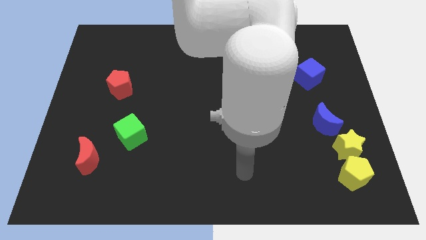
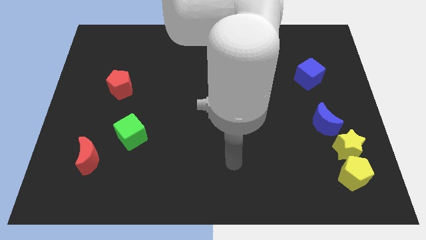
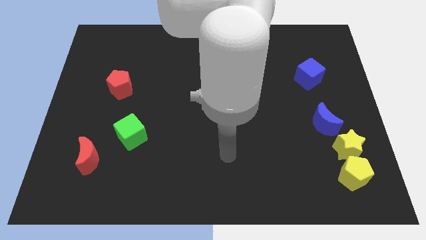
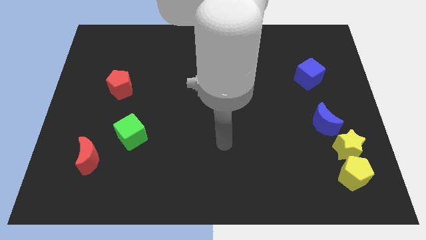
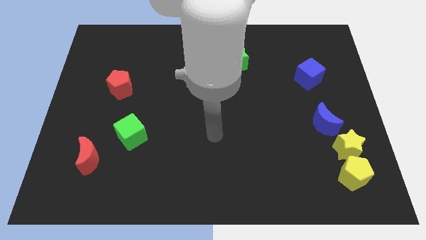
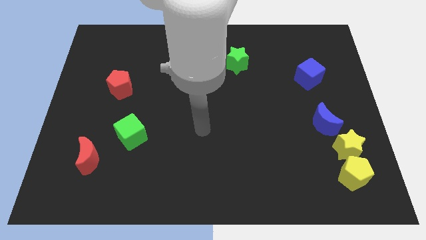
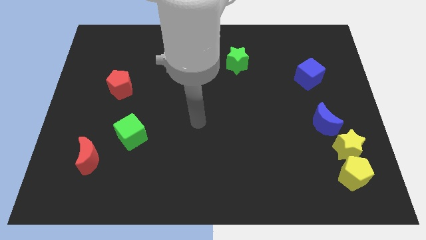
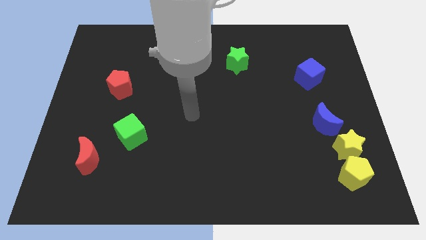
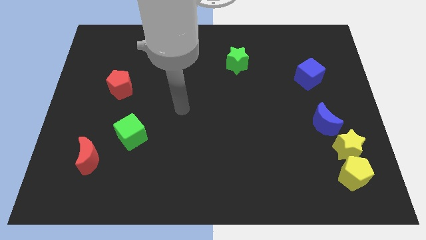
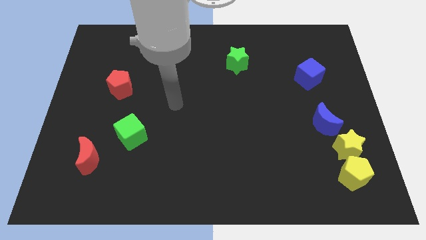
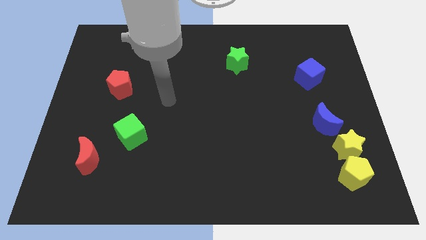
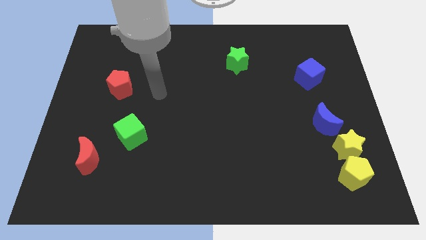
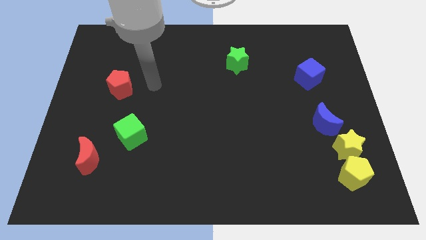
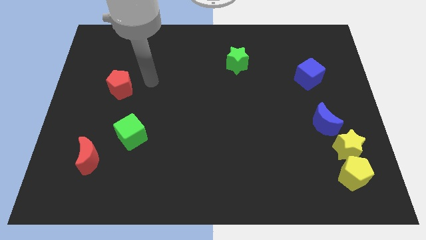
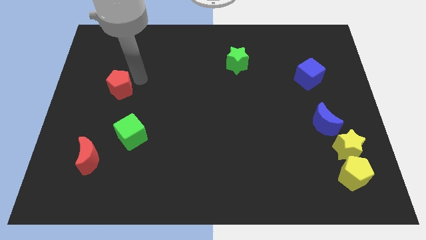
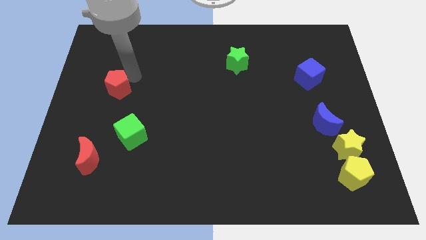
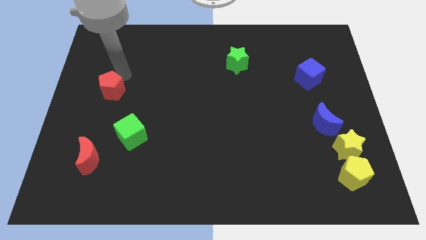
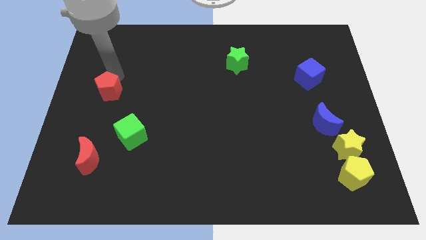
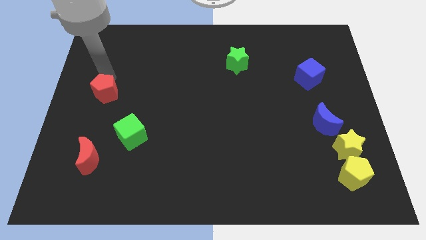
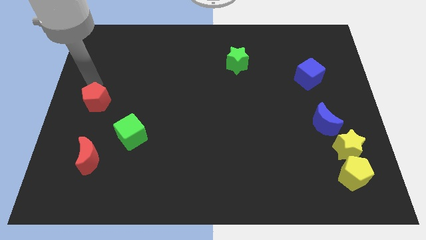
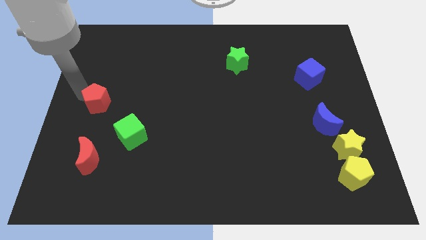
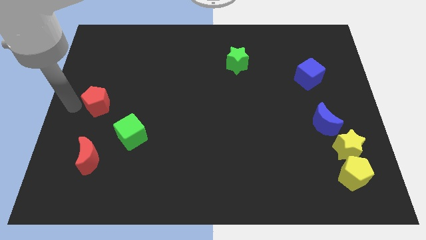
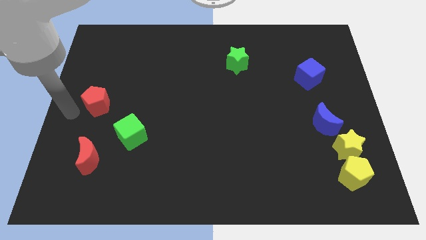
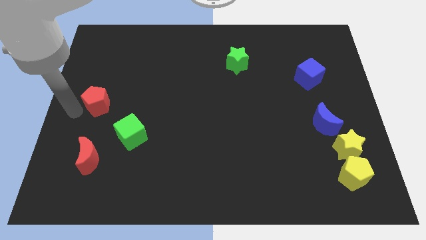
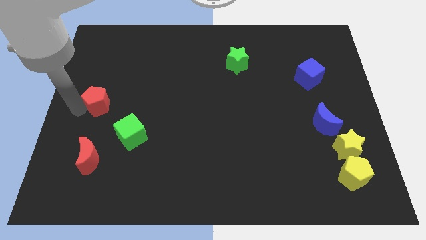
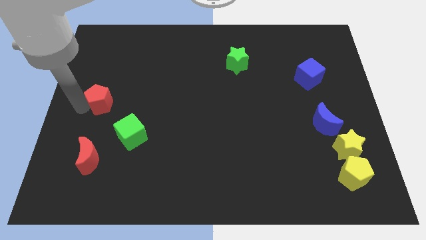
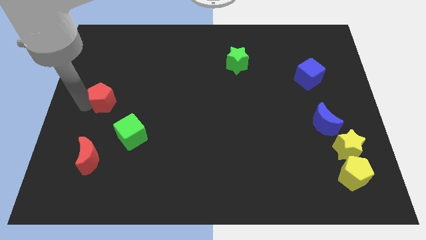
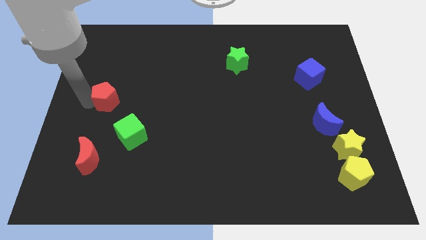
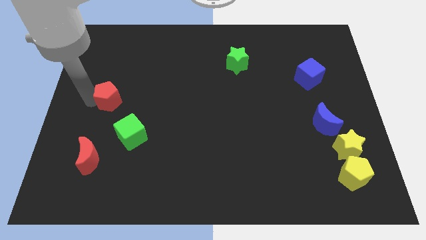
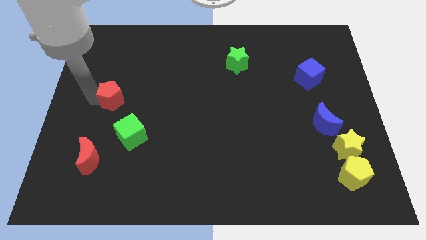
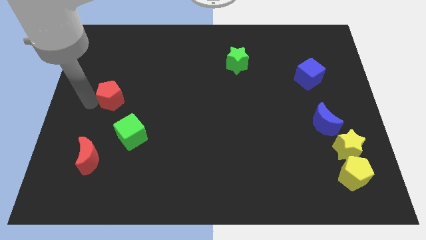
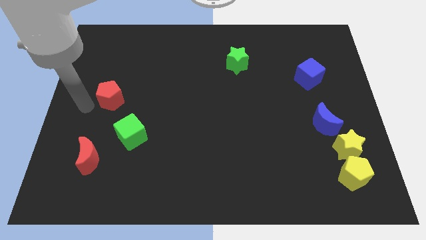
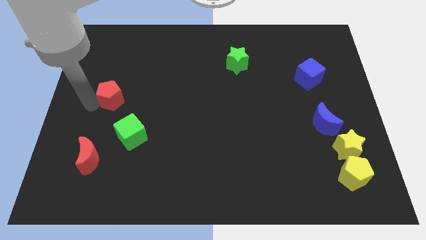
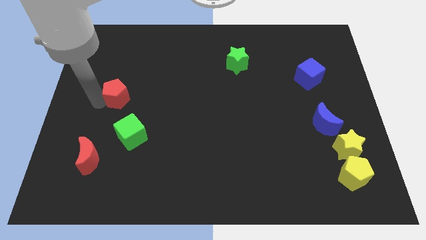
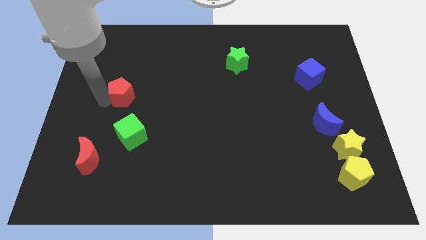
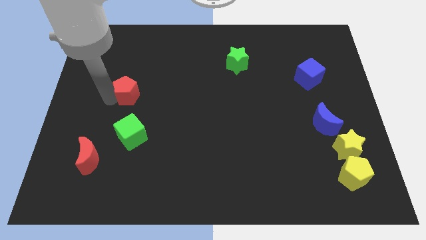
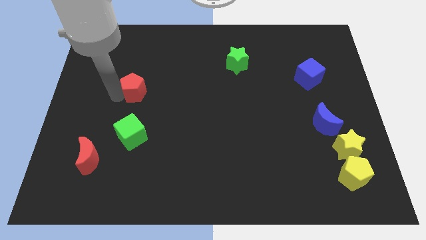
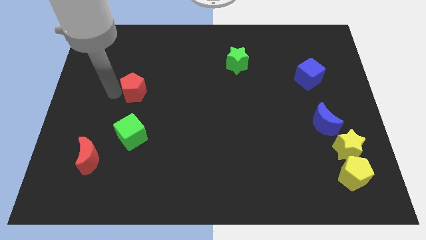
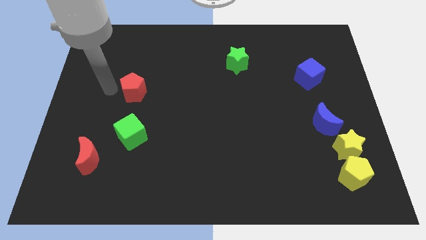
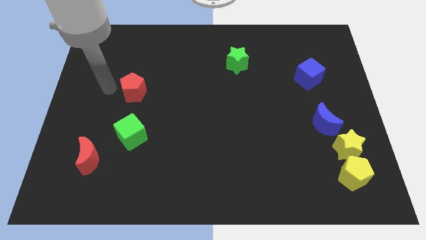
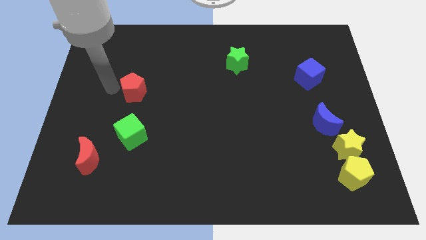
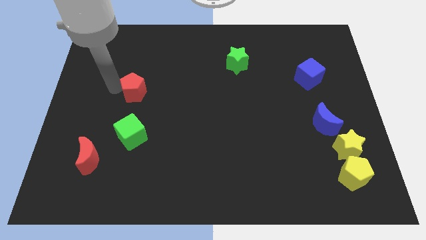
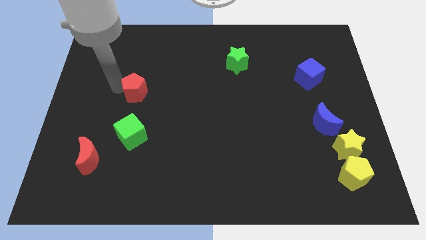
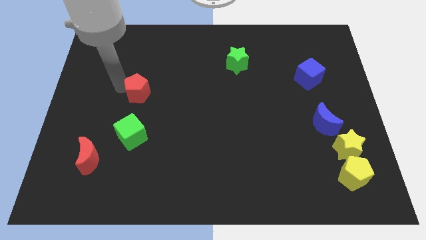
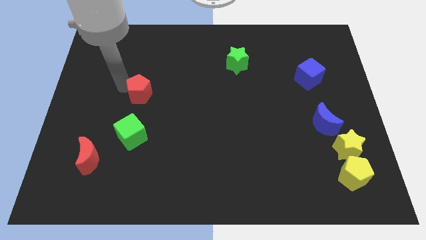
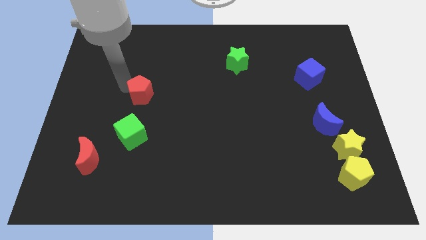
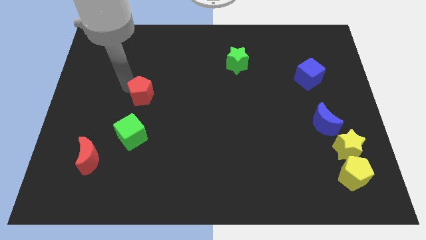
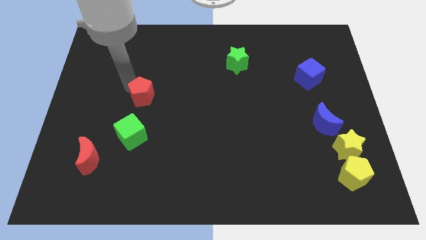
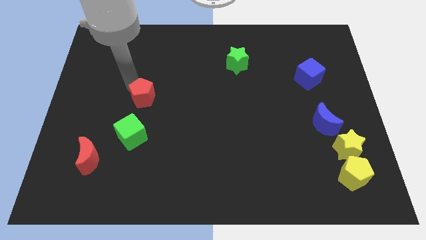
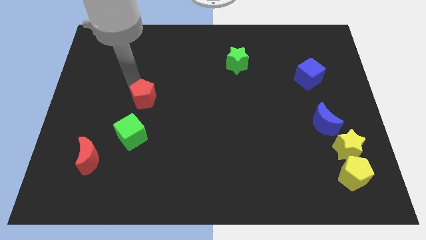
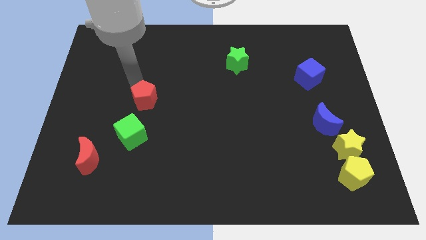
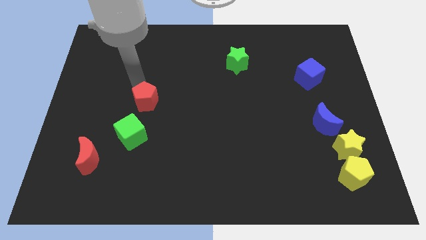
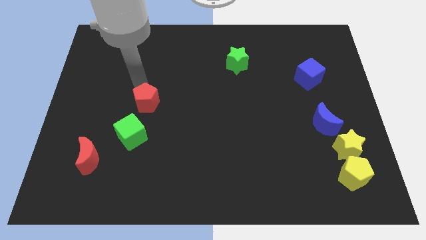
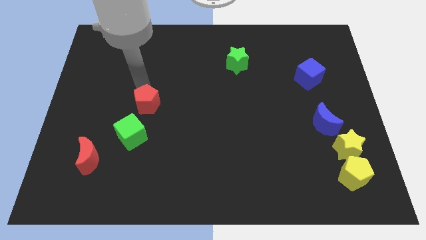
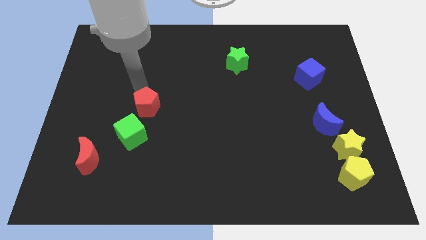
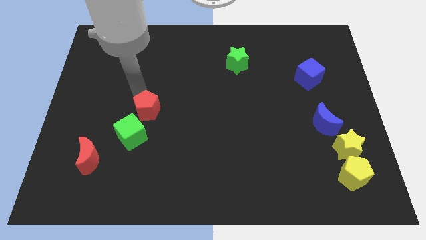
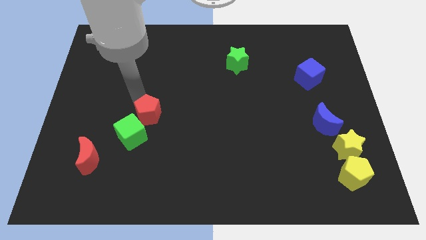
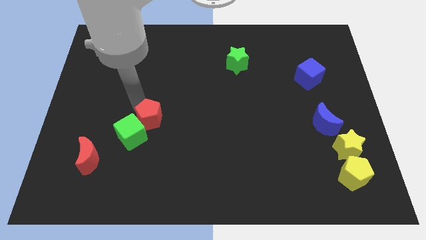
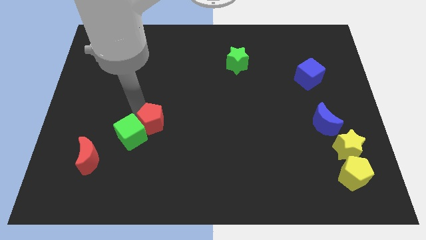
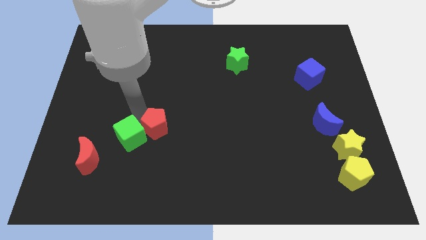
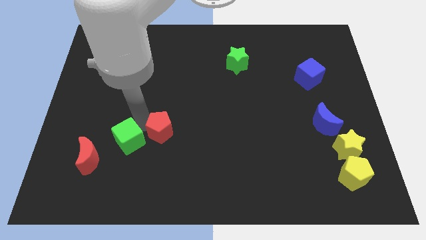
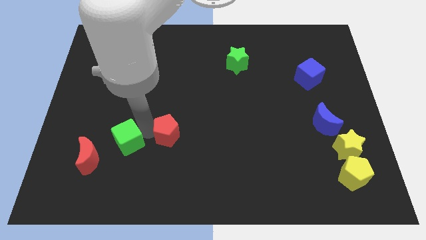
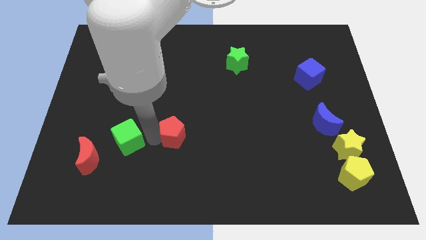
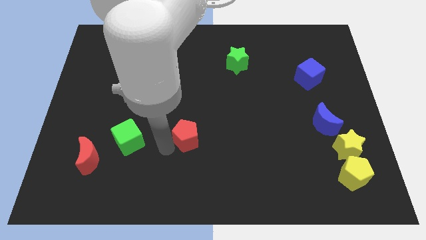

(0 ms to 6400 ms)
slide the red pentagon to the center

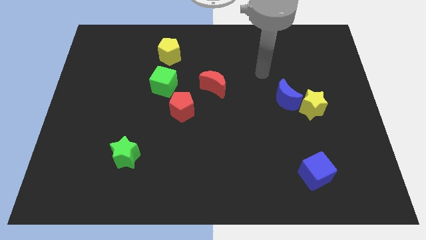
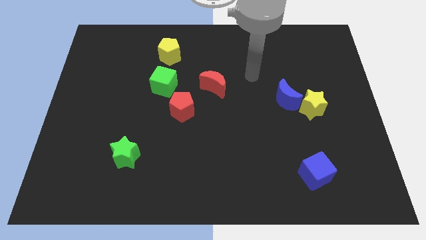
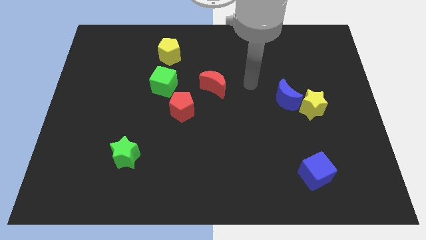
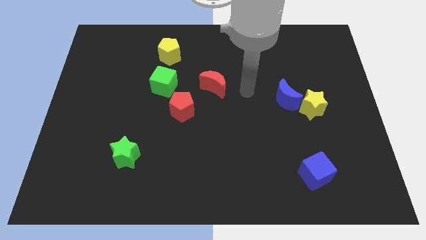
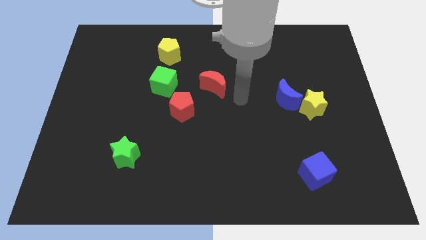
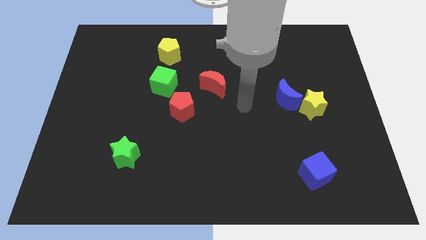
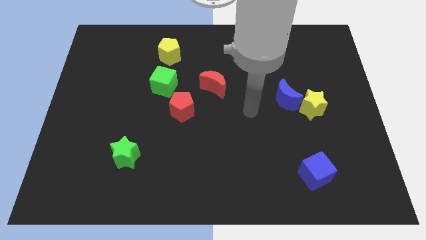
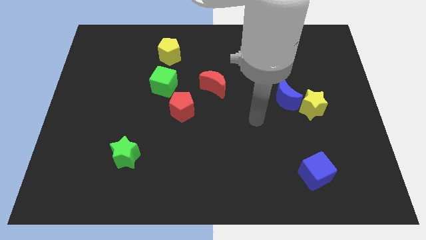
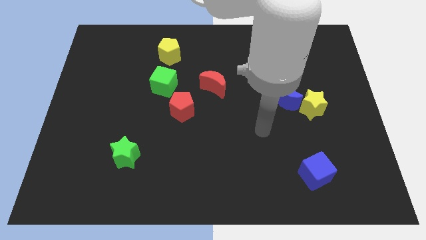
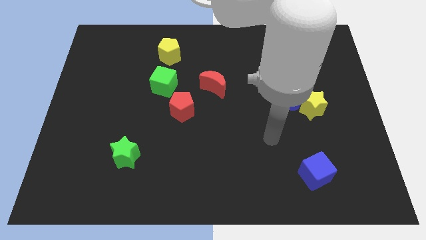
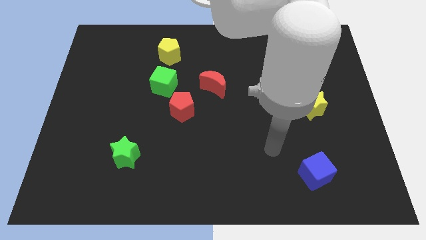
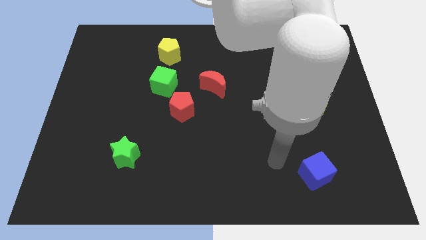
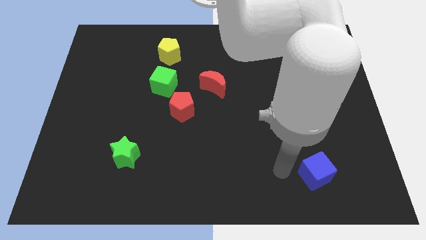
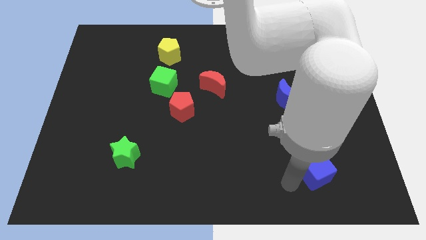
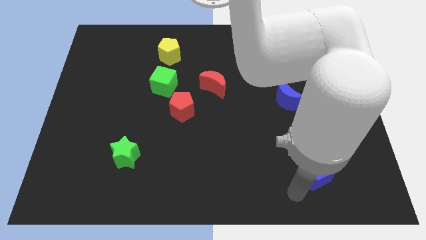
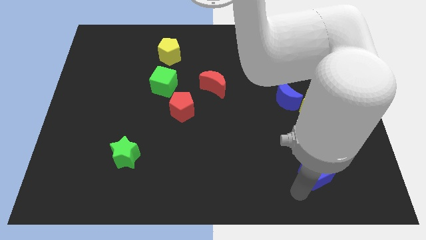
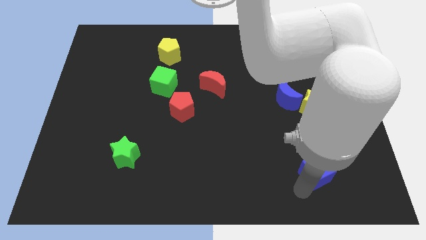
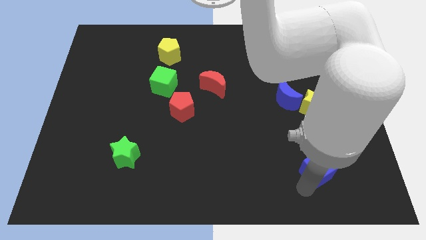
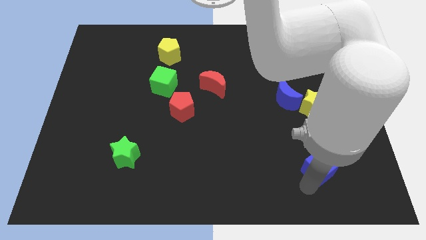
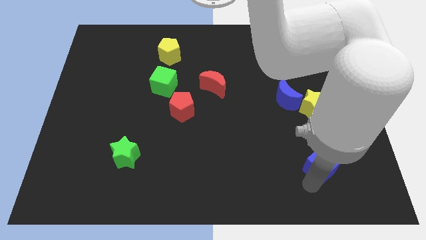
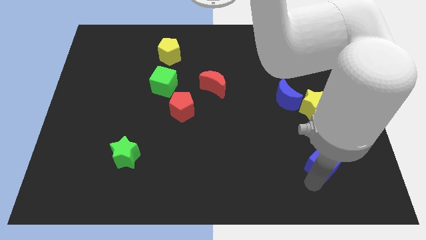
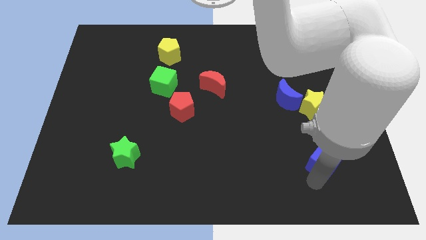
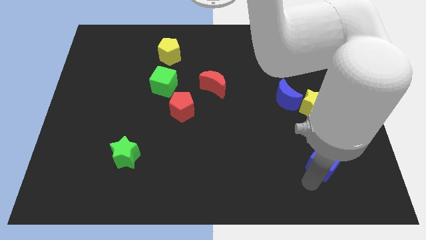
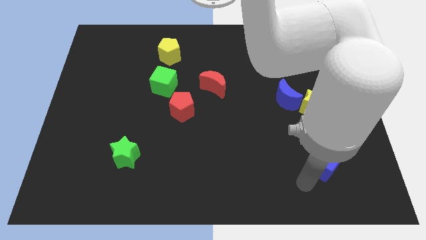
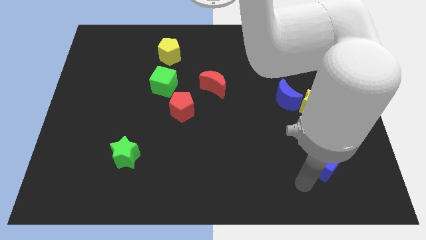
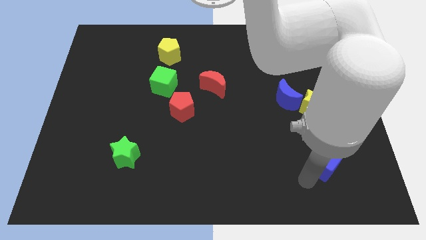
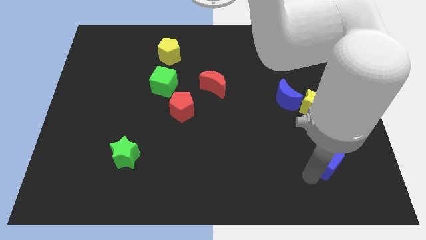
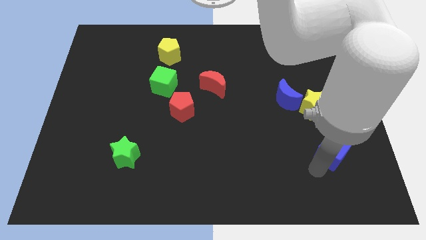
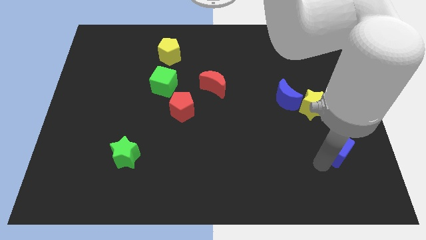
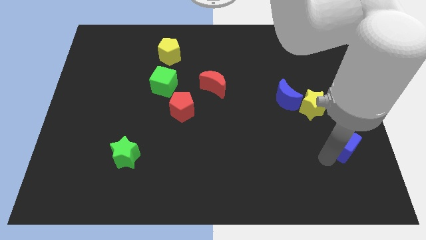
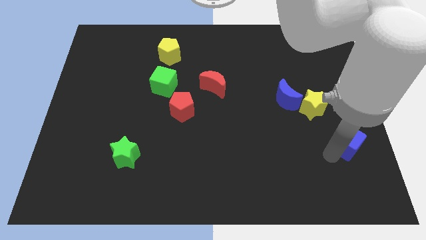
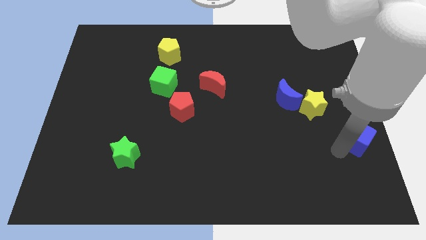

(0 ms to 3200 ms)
slide the blue cube to the right side
